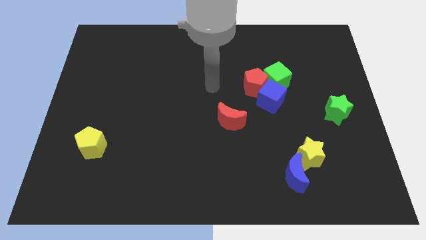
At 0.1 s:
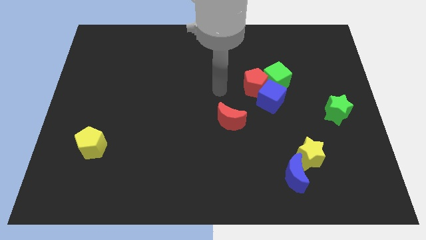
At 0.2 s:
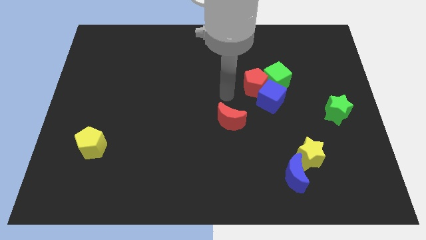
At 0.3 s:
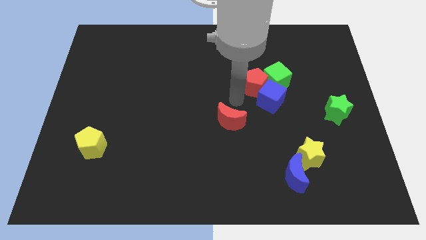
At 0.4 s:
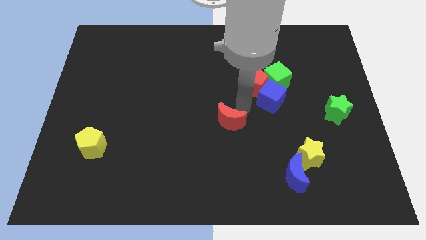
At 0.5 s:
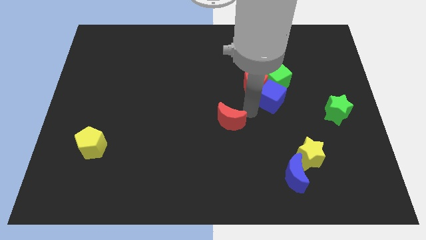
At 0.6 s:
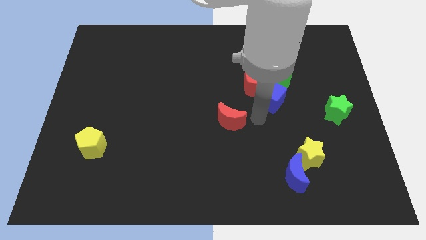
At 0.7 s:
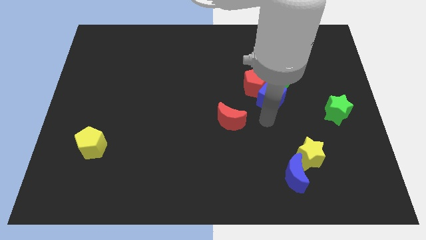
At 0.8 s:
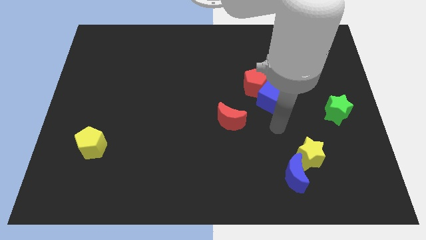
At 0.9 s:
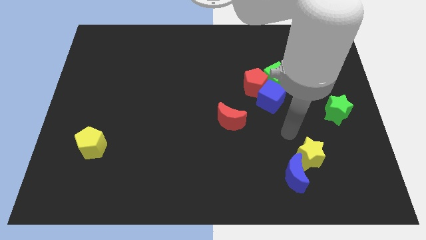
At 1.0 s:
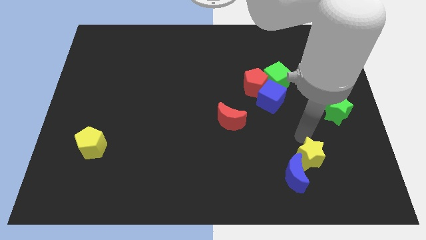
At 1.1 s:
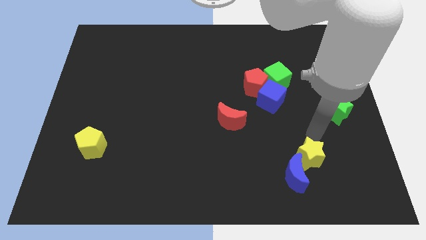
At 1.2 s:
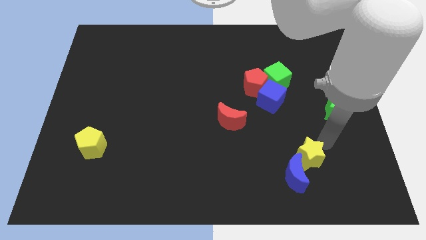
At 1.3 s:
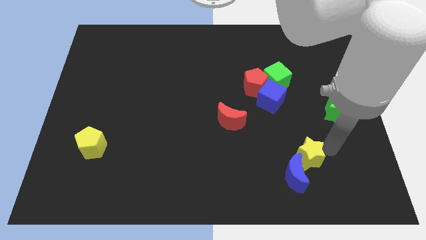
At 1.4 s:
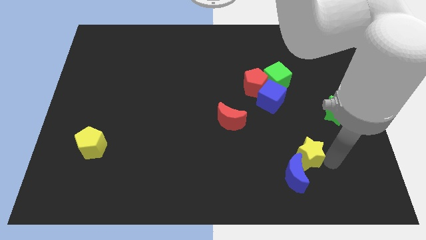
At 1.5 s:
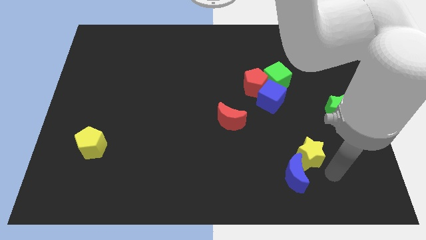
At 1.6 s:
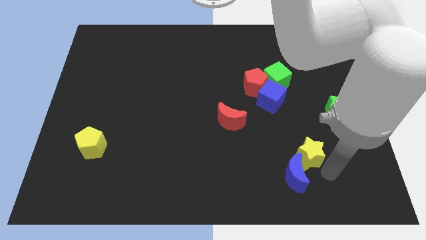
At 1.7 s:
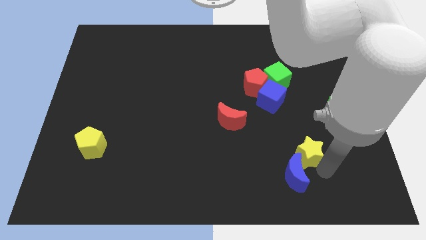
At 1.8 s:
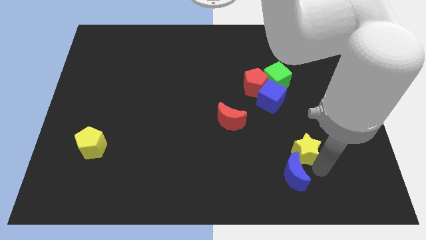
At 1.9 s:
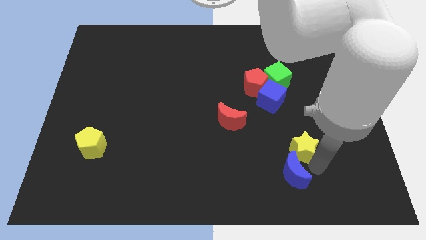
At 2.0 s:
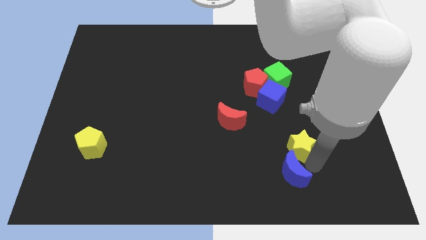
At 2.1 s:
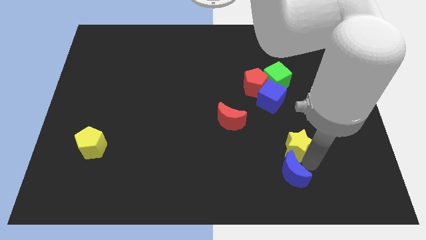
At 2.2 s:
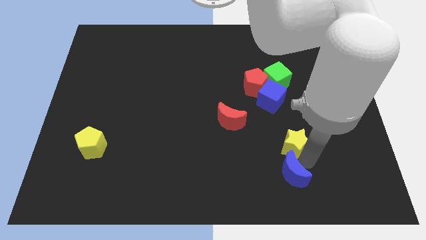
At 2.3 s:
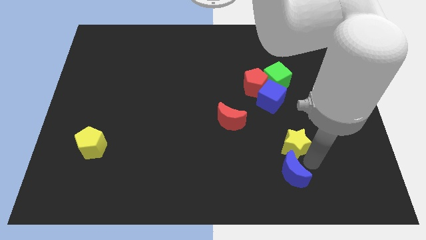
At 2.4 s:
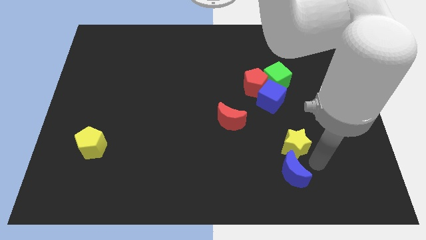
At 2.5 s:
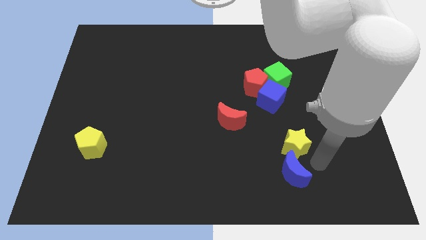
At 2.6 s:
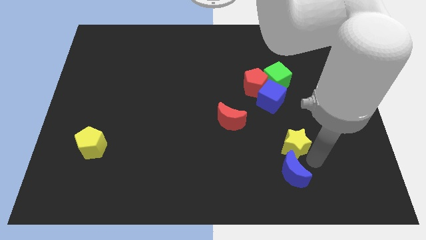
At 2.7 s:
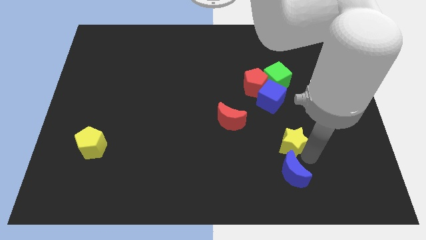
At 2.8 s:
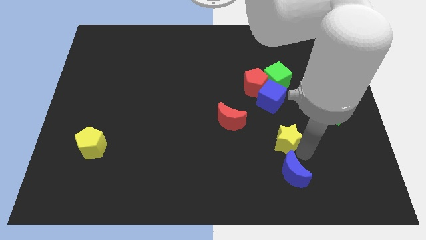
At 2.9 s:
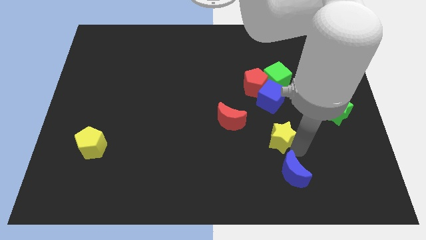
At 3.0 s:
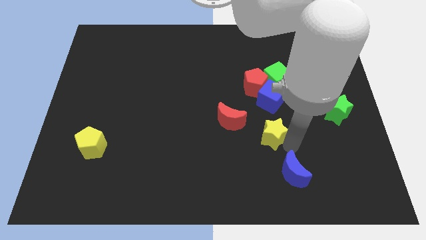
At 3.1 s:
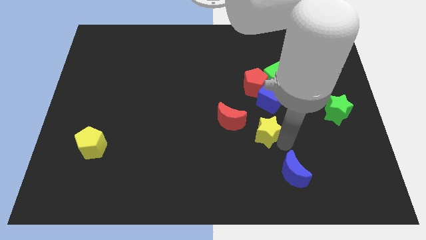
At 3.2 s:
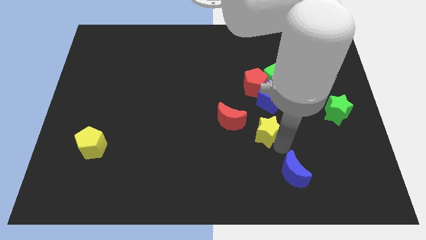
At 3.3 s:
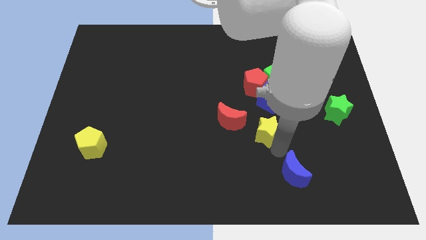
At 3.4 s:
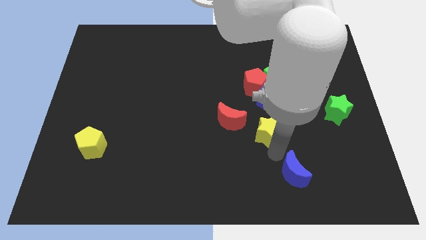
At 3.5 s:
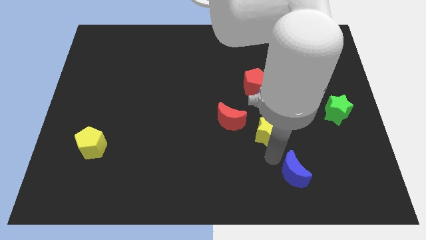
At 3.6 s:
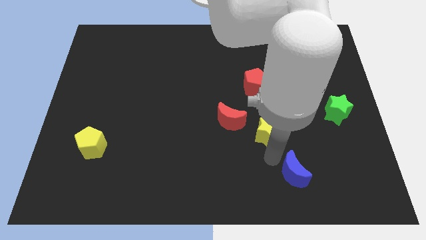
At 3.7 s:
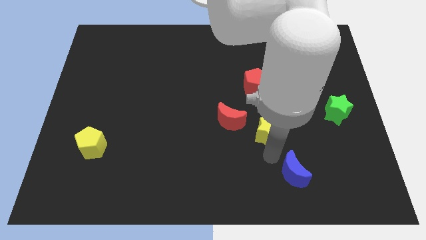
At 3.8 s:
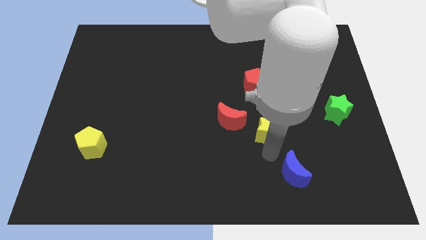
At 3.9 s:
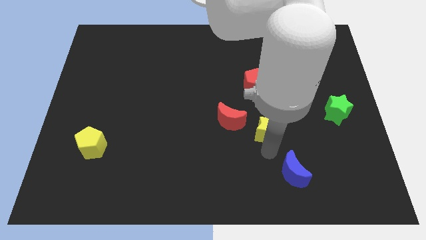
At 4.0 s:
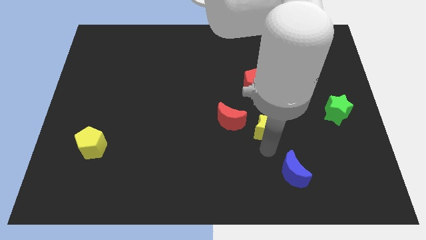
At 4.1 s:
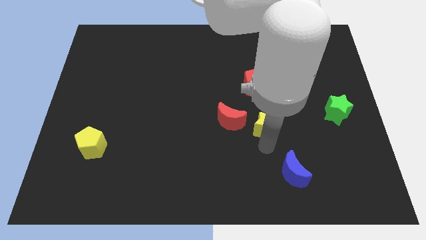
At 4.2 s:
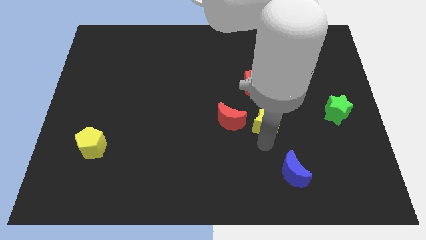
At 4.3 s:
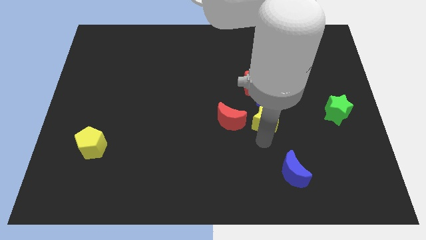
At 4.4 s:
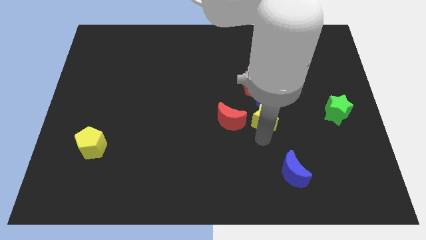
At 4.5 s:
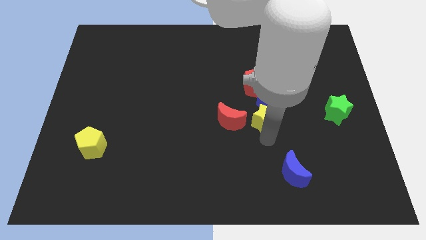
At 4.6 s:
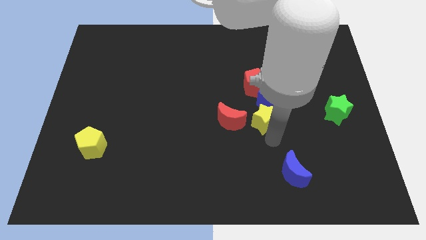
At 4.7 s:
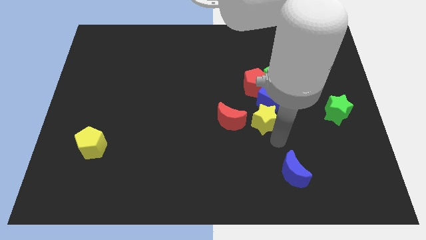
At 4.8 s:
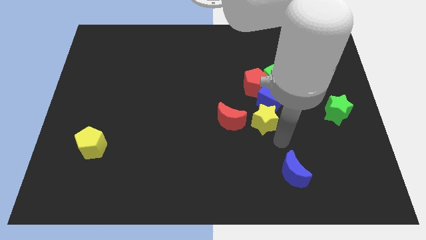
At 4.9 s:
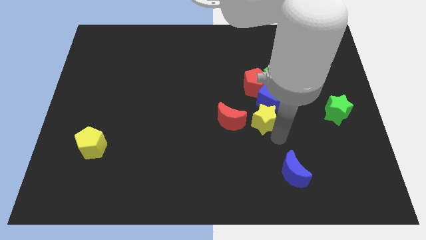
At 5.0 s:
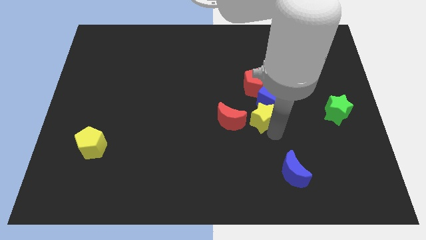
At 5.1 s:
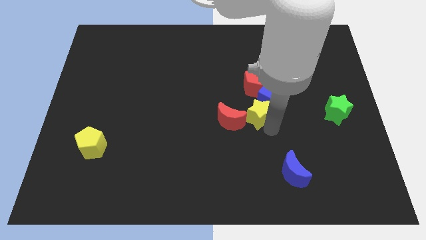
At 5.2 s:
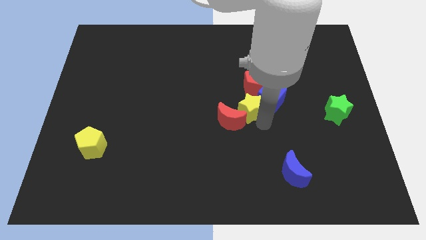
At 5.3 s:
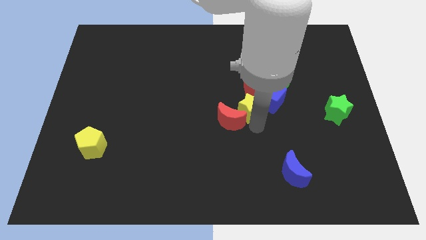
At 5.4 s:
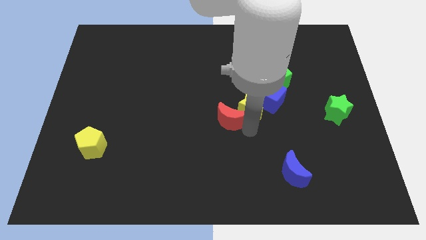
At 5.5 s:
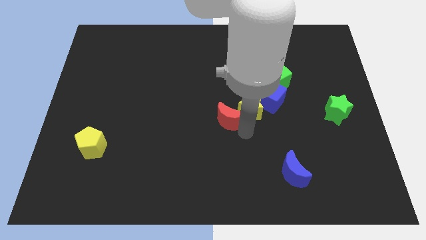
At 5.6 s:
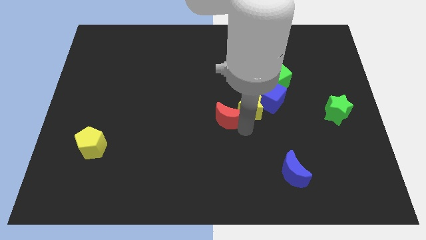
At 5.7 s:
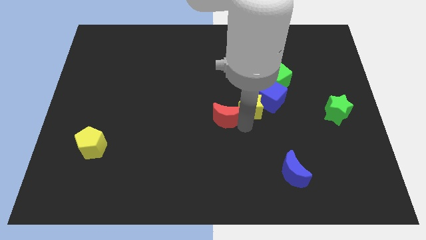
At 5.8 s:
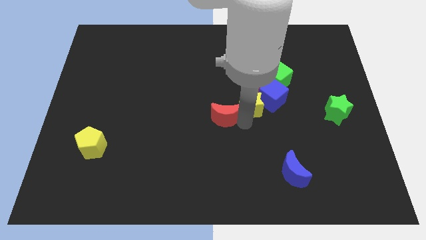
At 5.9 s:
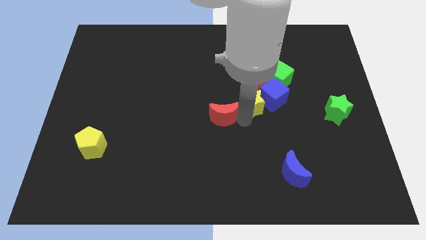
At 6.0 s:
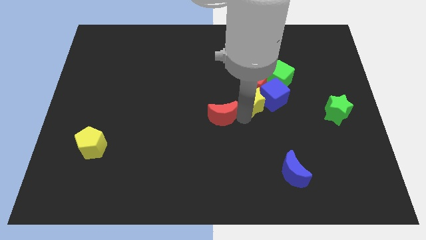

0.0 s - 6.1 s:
push the yellow star to the red pentagon
